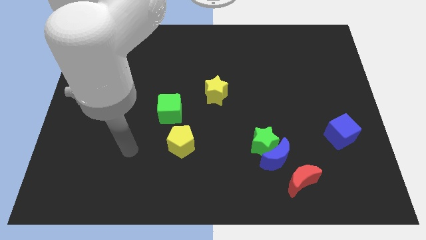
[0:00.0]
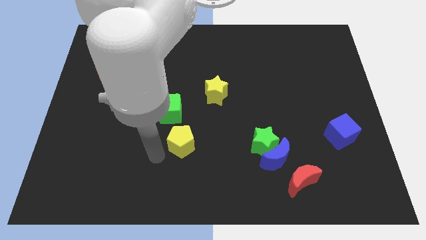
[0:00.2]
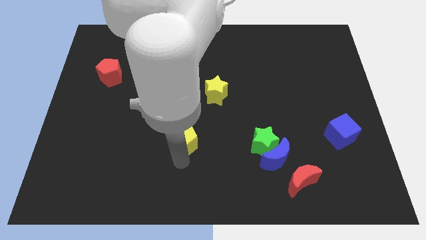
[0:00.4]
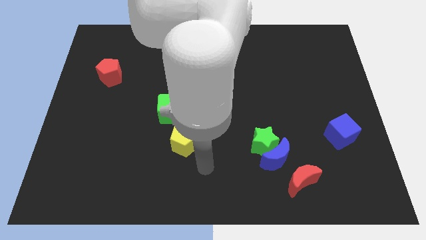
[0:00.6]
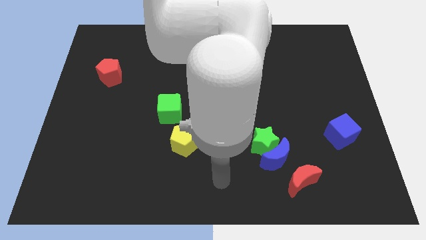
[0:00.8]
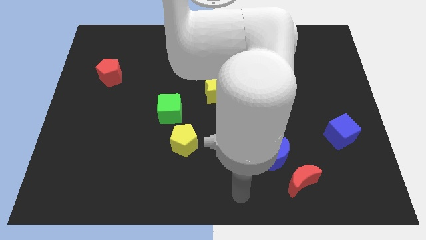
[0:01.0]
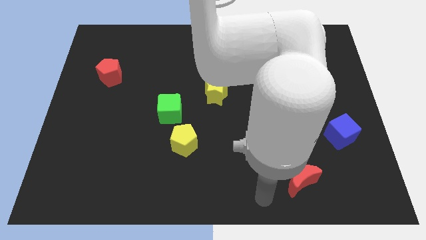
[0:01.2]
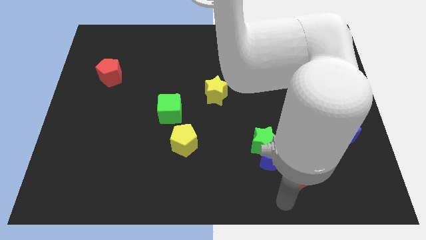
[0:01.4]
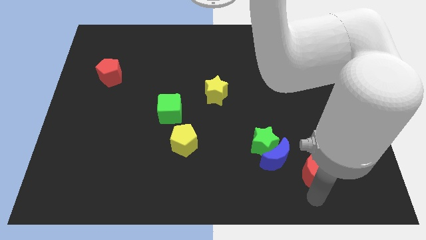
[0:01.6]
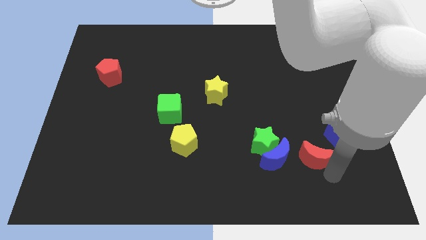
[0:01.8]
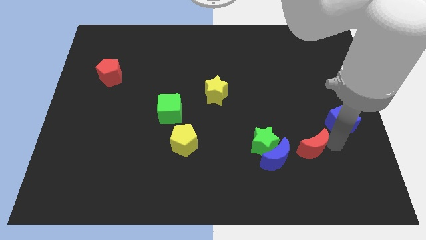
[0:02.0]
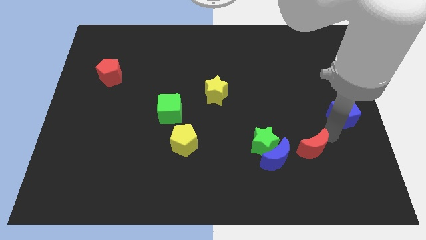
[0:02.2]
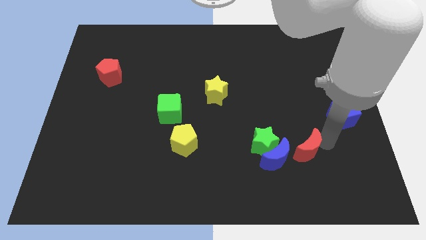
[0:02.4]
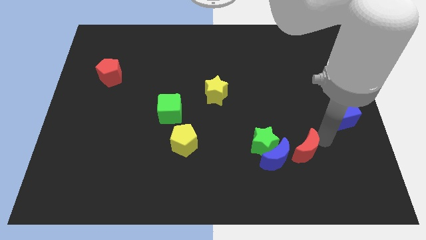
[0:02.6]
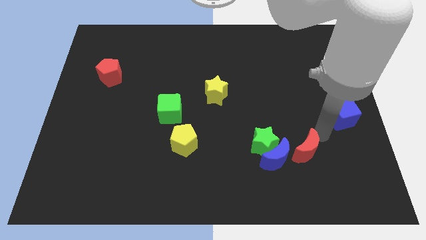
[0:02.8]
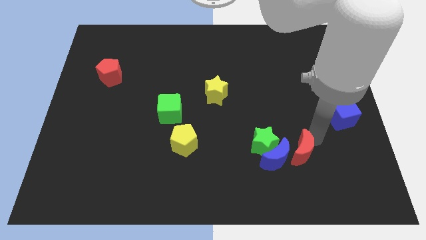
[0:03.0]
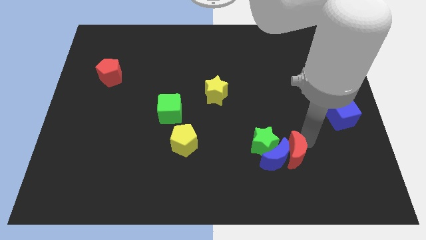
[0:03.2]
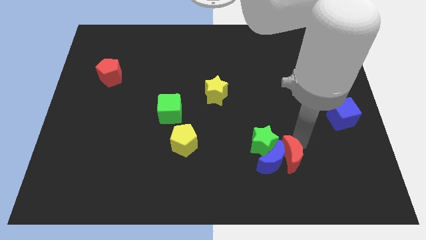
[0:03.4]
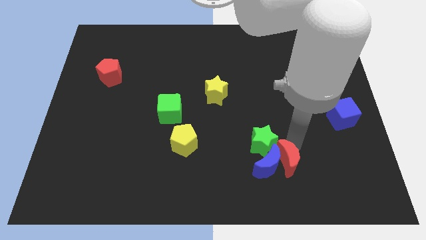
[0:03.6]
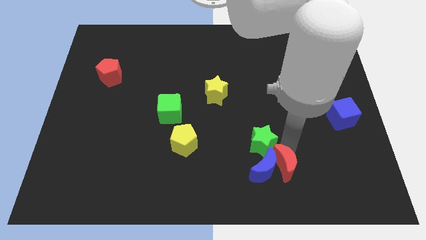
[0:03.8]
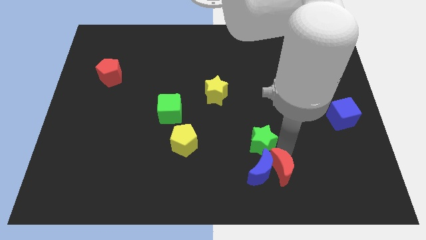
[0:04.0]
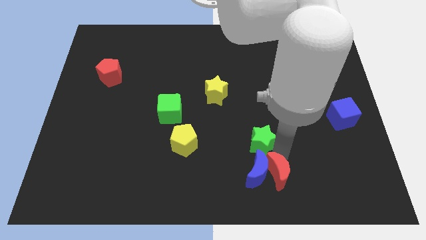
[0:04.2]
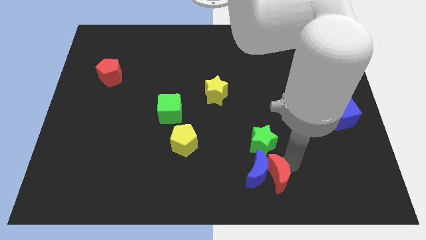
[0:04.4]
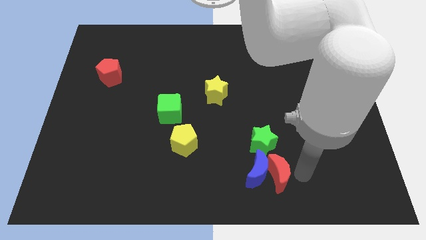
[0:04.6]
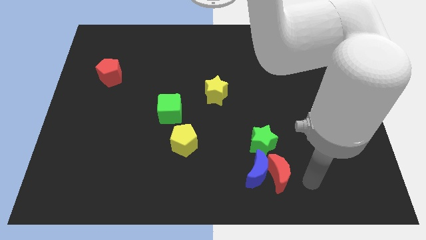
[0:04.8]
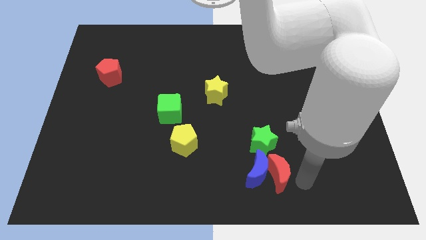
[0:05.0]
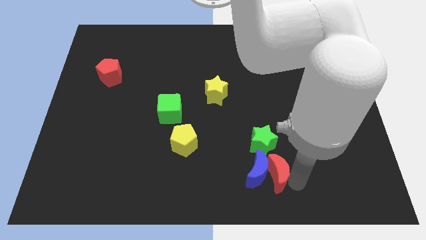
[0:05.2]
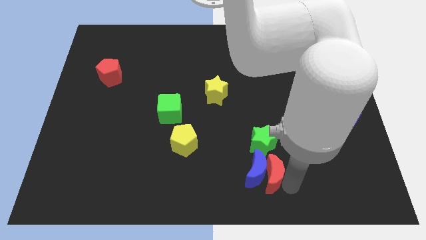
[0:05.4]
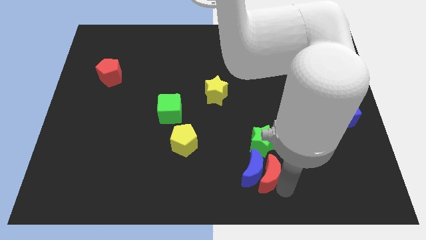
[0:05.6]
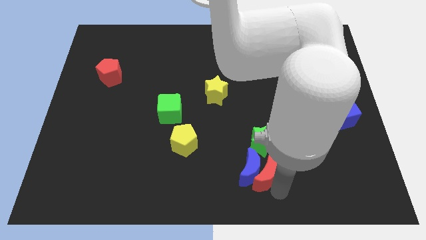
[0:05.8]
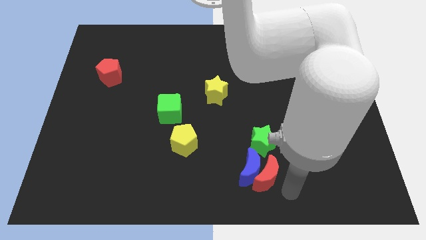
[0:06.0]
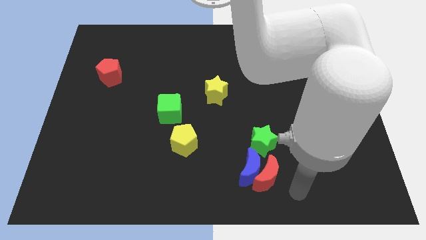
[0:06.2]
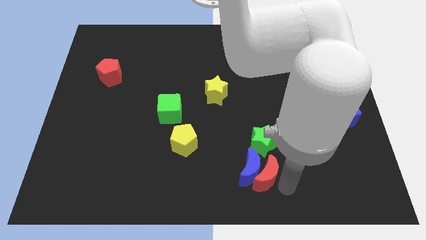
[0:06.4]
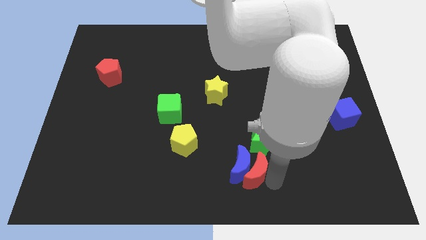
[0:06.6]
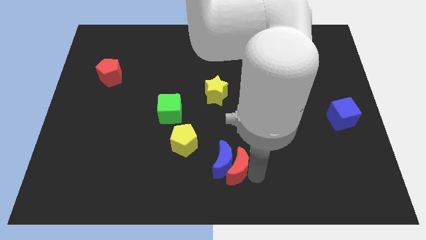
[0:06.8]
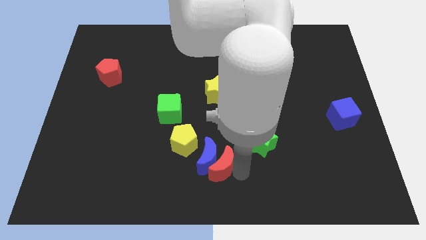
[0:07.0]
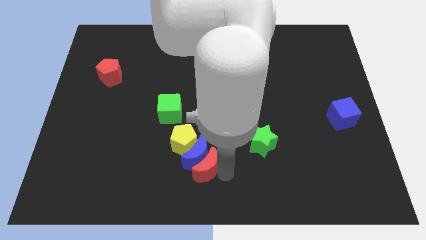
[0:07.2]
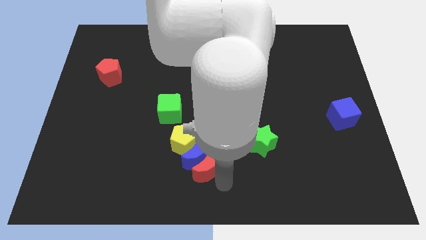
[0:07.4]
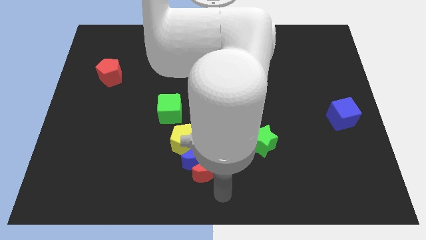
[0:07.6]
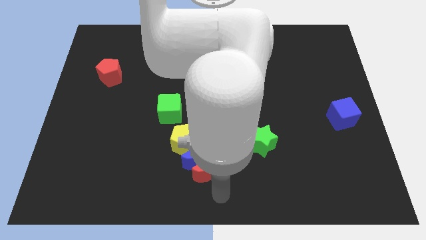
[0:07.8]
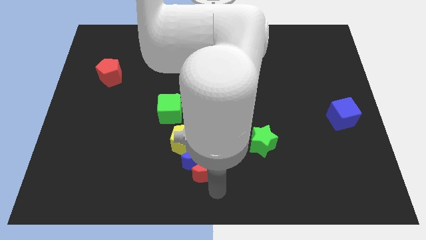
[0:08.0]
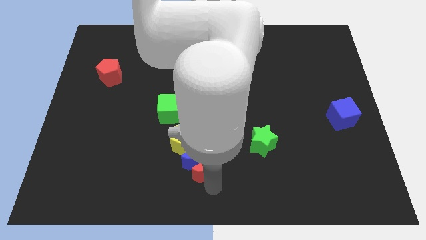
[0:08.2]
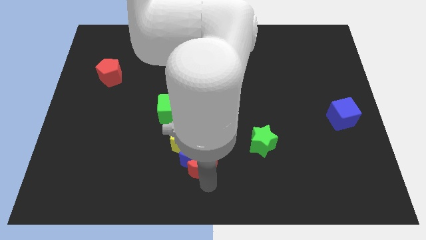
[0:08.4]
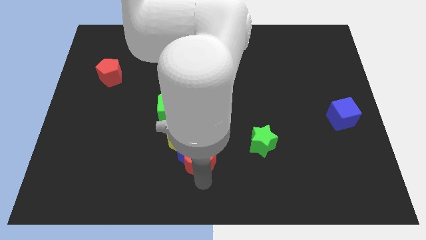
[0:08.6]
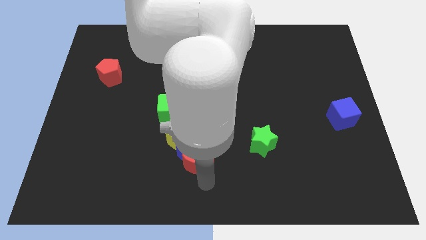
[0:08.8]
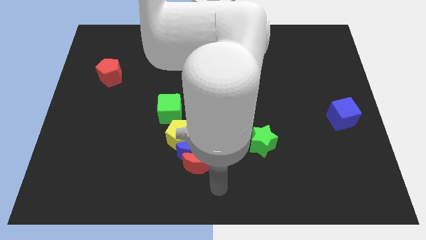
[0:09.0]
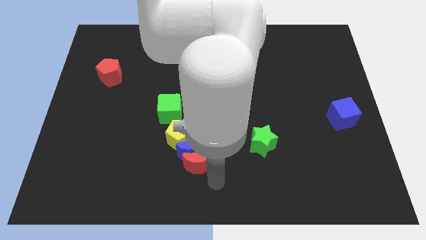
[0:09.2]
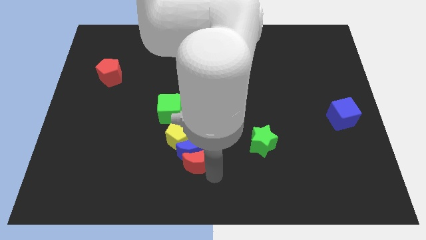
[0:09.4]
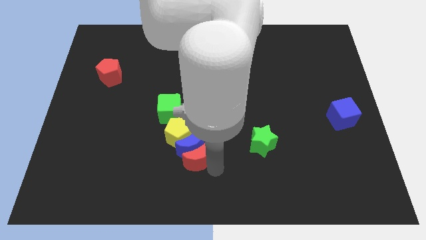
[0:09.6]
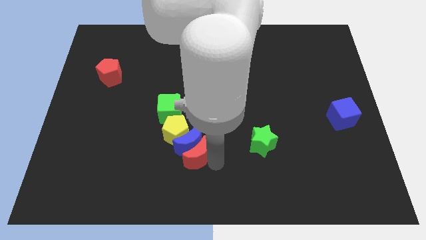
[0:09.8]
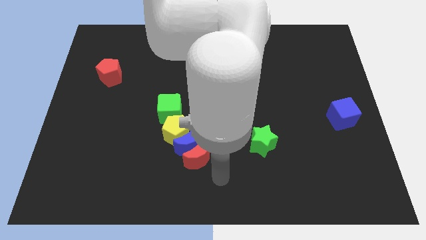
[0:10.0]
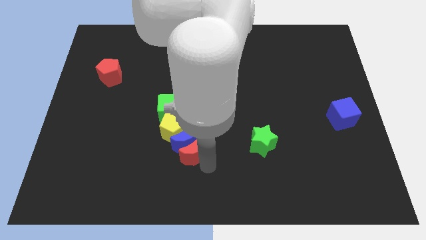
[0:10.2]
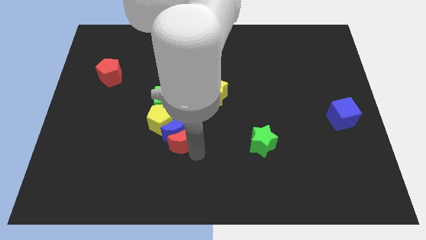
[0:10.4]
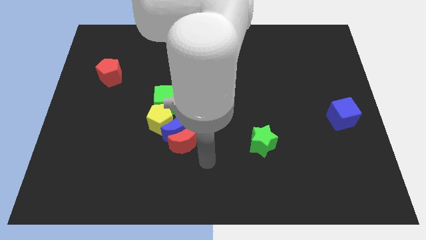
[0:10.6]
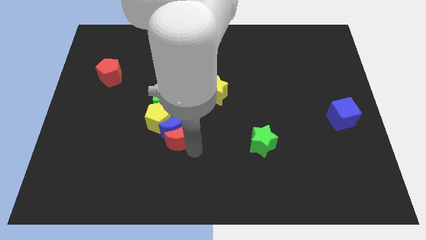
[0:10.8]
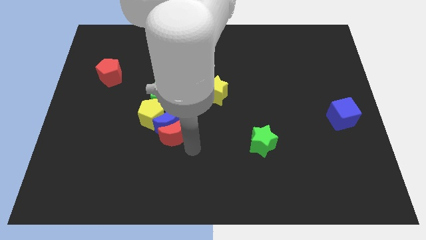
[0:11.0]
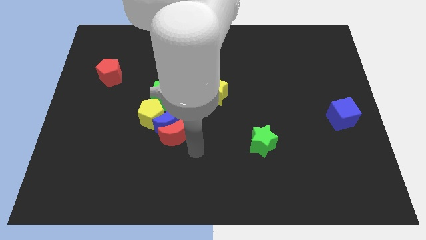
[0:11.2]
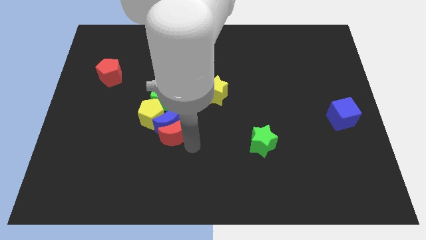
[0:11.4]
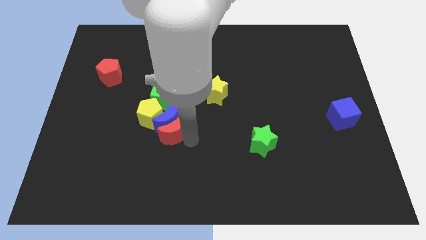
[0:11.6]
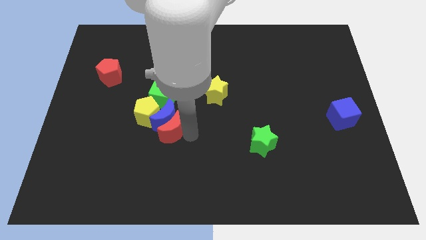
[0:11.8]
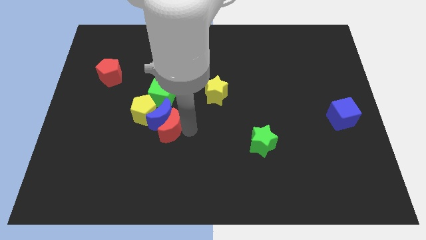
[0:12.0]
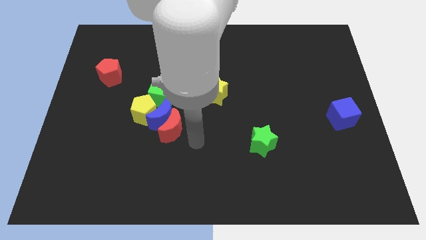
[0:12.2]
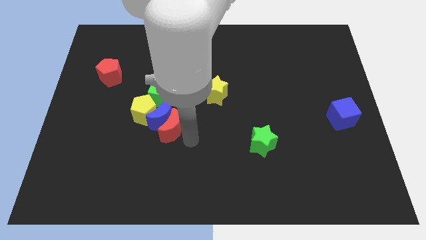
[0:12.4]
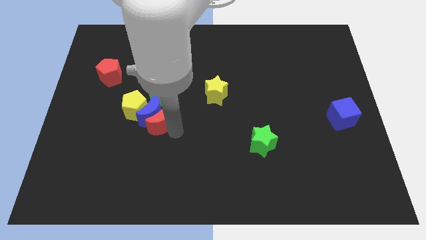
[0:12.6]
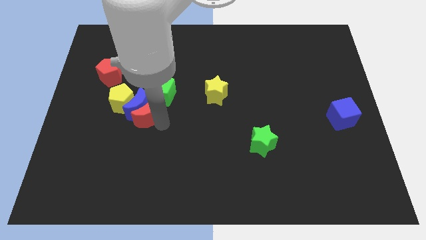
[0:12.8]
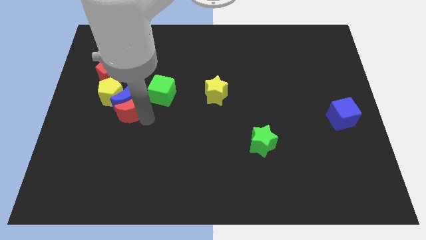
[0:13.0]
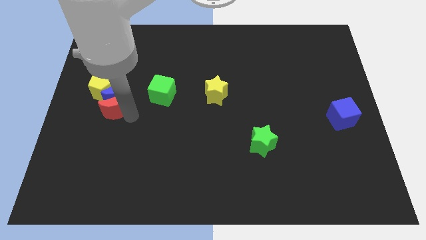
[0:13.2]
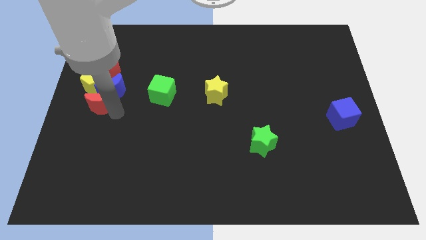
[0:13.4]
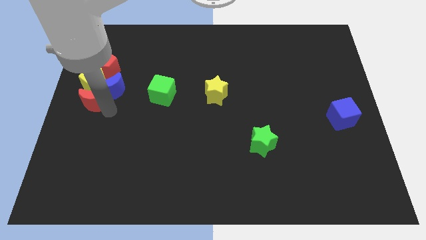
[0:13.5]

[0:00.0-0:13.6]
push the red moon close to the yellow pentagon
